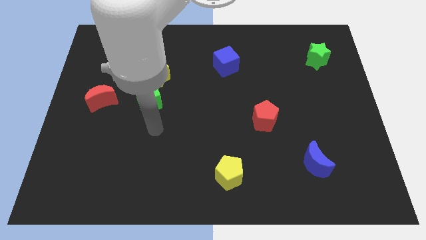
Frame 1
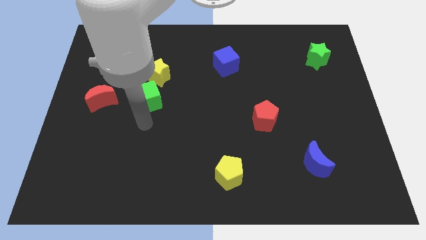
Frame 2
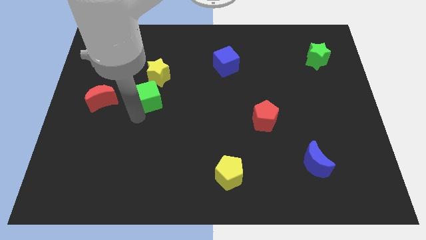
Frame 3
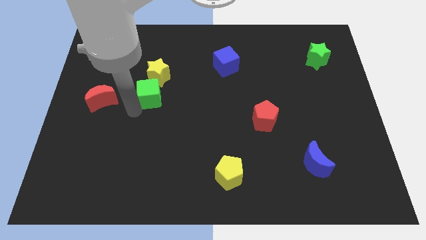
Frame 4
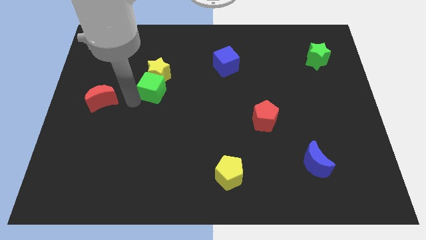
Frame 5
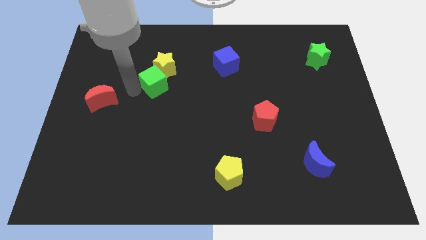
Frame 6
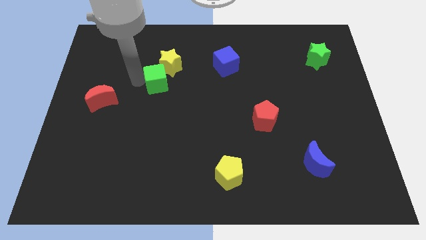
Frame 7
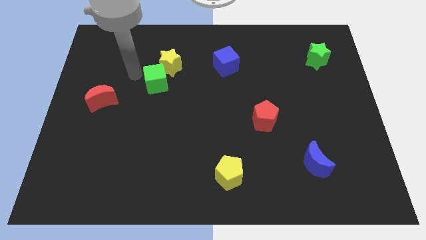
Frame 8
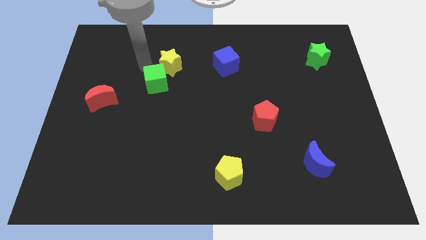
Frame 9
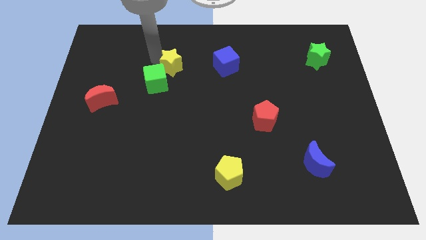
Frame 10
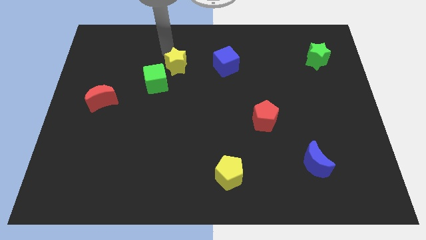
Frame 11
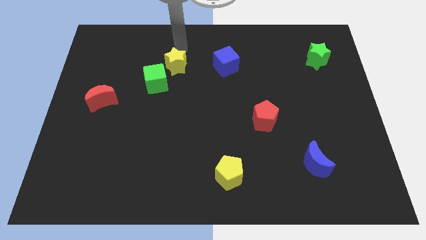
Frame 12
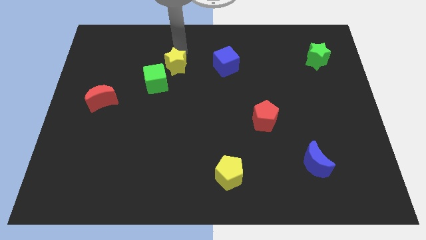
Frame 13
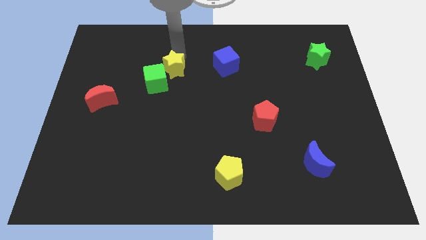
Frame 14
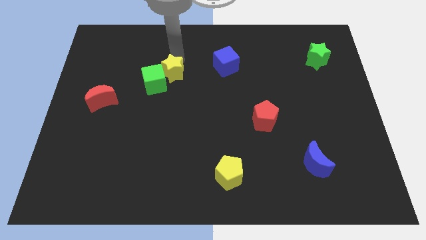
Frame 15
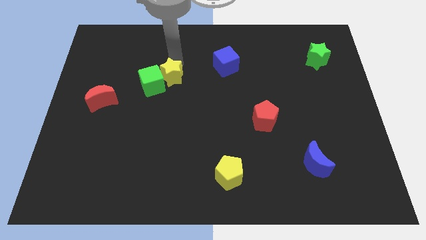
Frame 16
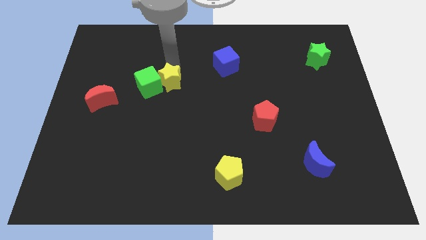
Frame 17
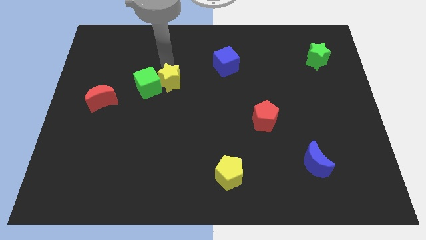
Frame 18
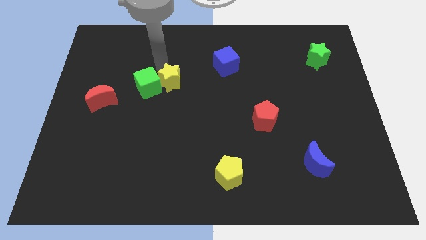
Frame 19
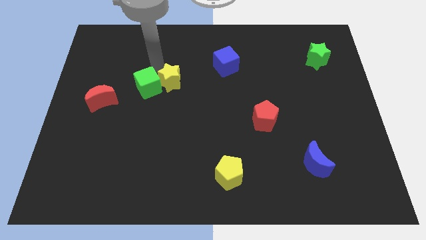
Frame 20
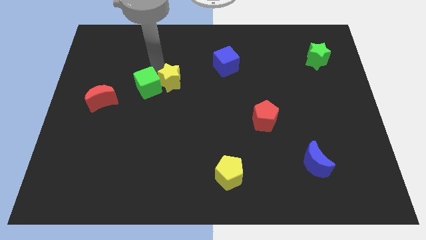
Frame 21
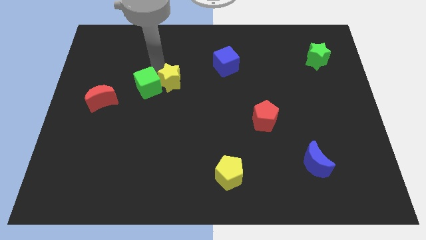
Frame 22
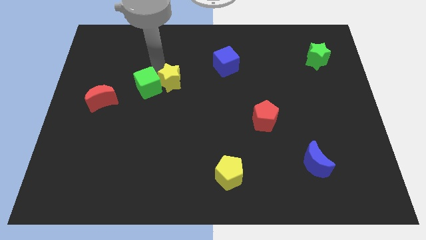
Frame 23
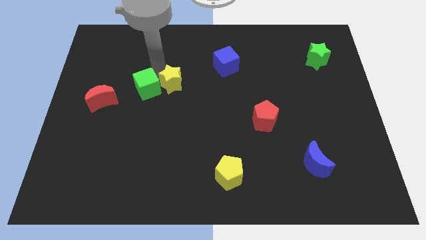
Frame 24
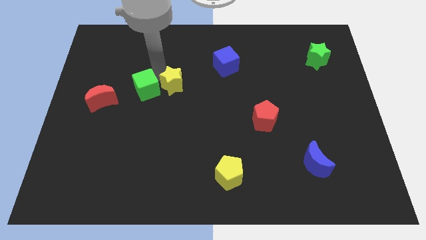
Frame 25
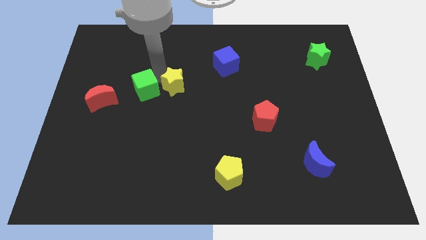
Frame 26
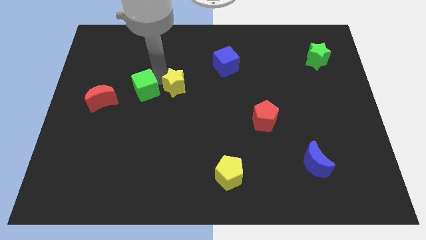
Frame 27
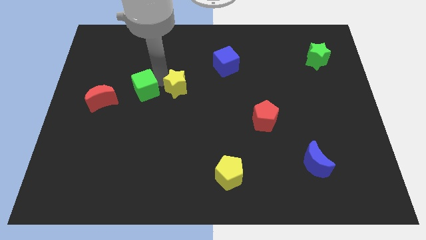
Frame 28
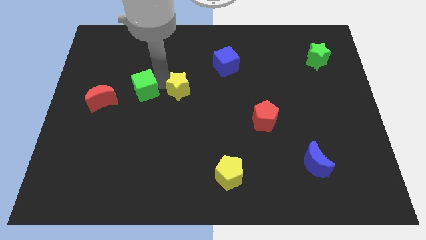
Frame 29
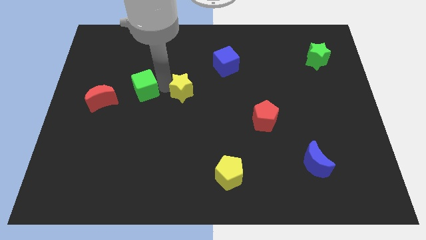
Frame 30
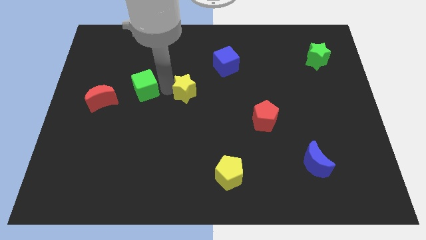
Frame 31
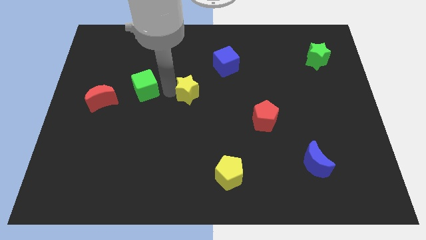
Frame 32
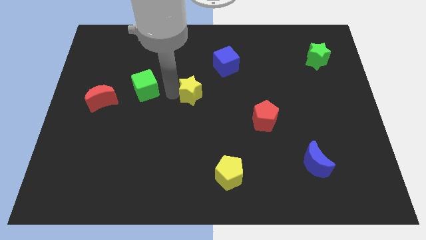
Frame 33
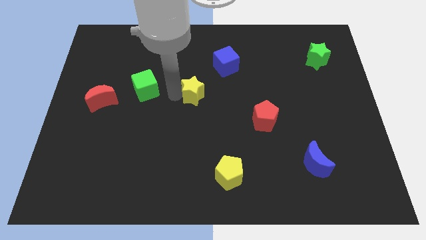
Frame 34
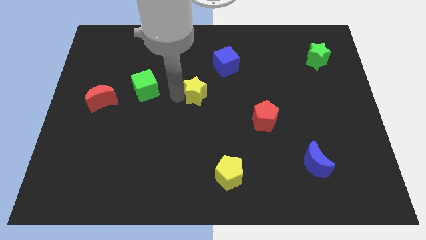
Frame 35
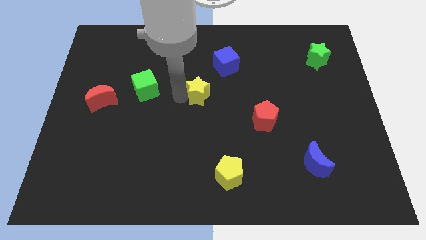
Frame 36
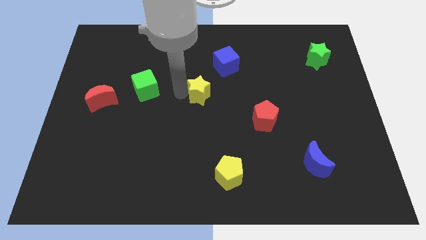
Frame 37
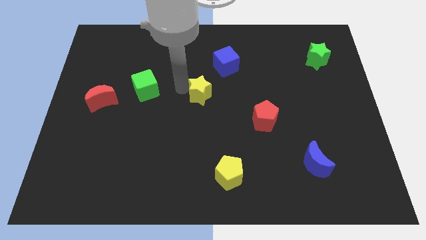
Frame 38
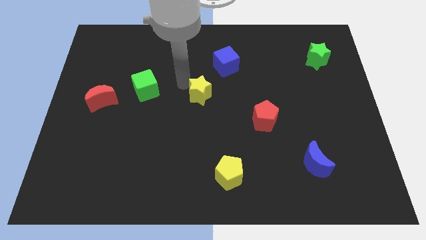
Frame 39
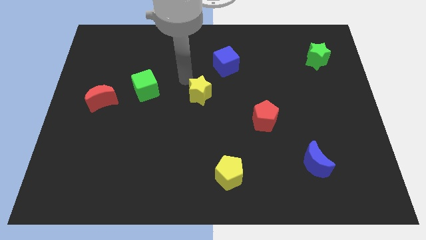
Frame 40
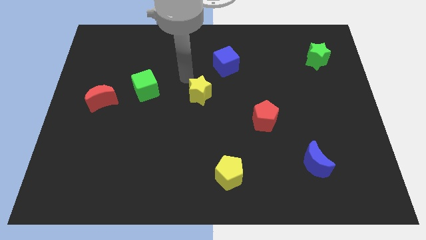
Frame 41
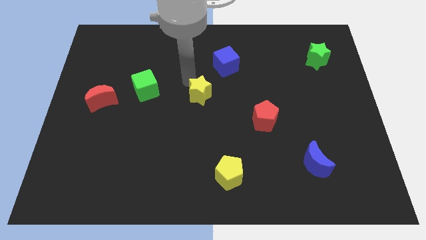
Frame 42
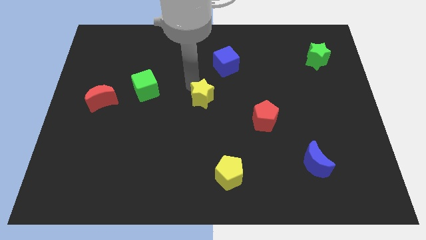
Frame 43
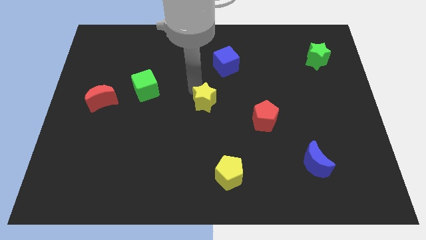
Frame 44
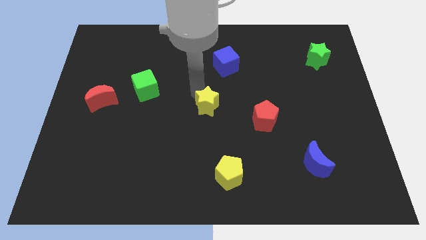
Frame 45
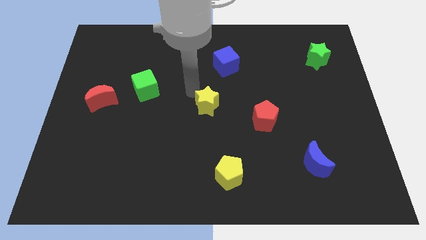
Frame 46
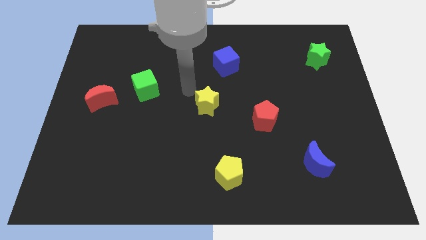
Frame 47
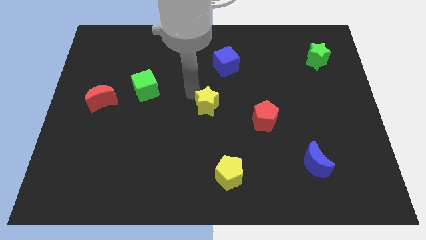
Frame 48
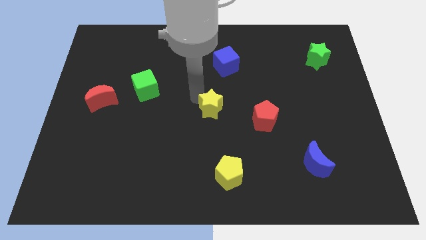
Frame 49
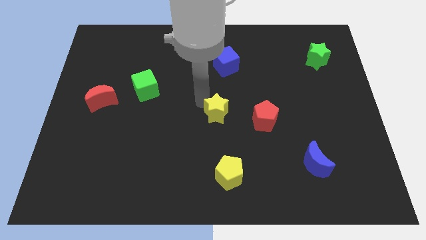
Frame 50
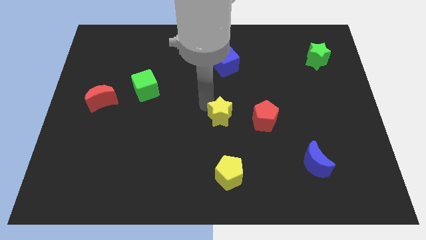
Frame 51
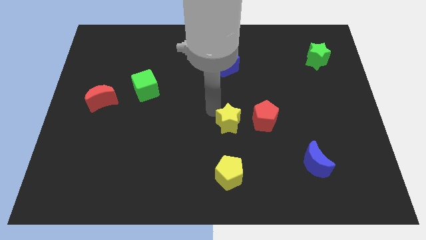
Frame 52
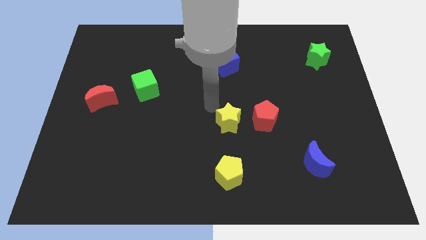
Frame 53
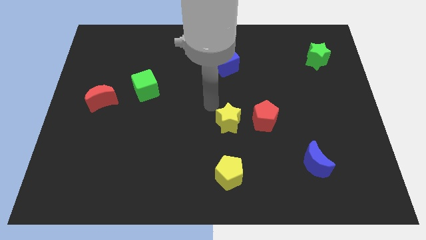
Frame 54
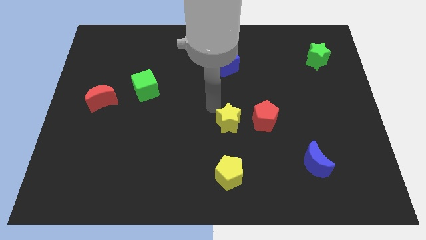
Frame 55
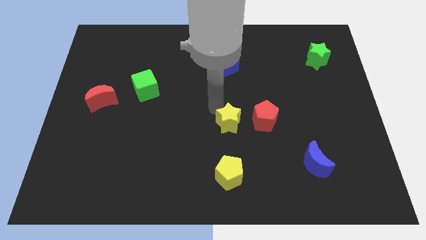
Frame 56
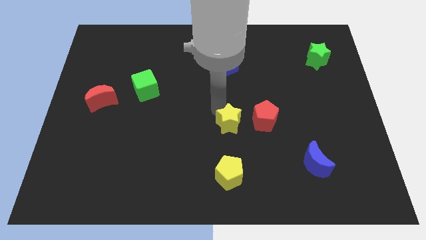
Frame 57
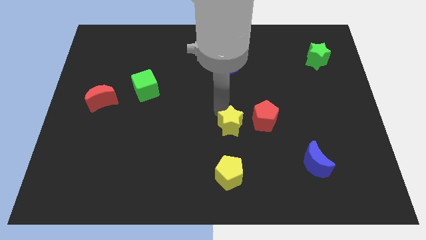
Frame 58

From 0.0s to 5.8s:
push the yellow star to the bottom left side of the red pentagon

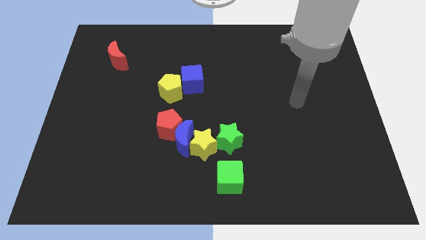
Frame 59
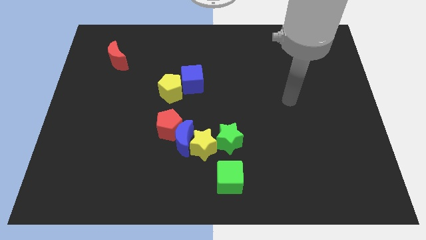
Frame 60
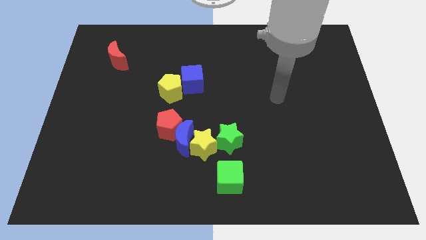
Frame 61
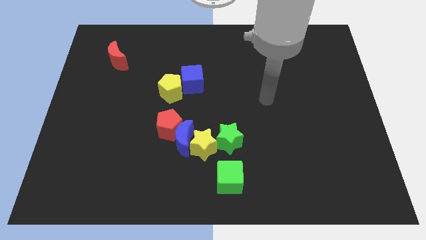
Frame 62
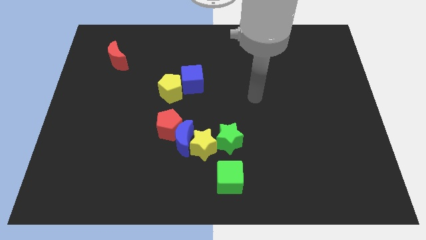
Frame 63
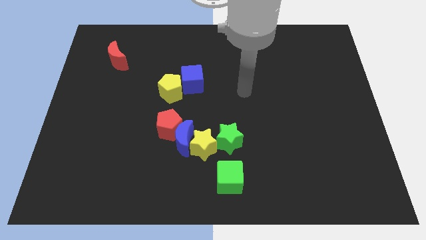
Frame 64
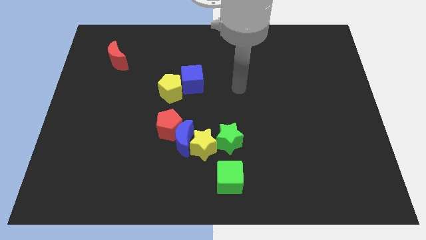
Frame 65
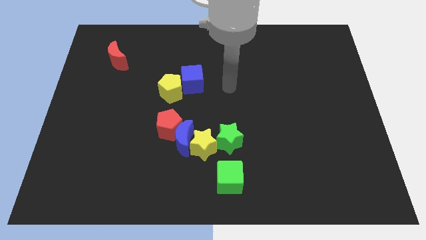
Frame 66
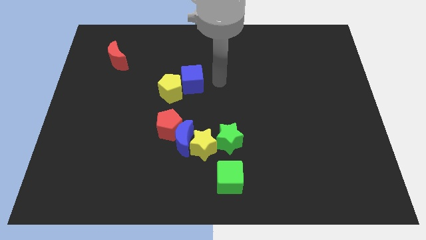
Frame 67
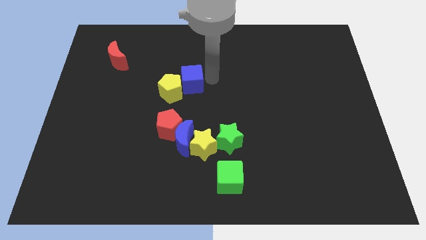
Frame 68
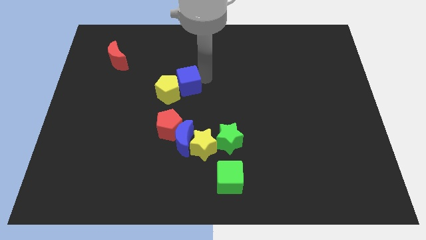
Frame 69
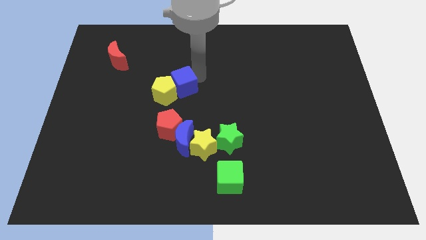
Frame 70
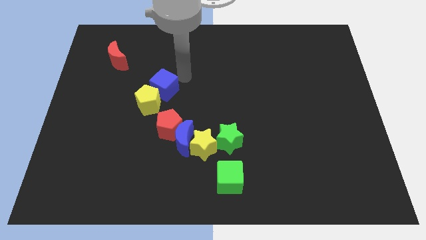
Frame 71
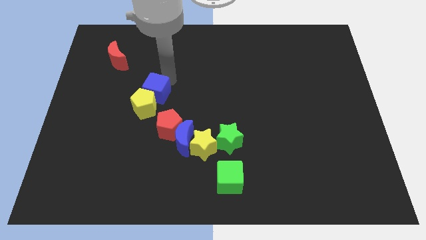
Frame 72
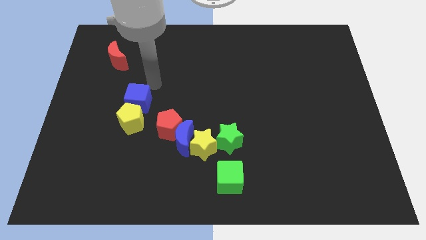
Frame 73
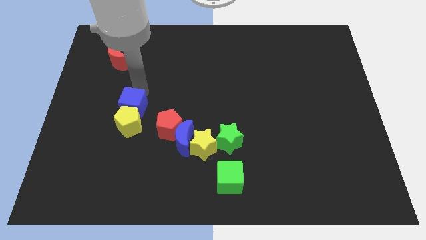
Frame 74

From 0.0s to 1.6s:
move the yellow pentagon left of the blue moon
